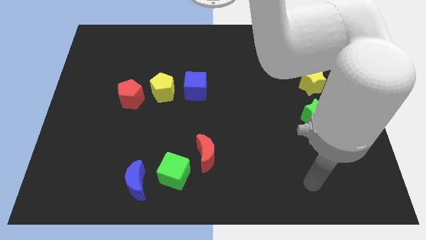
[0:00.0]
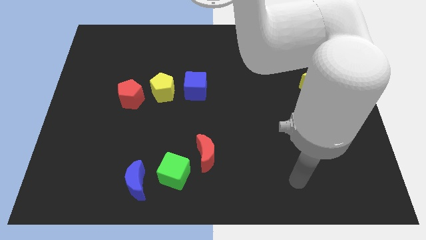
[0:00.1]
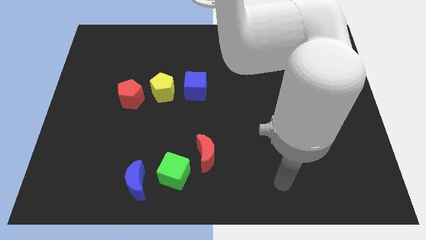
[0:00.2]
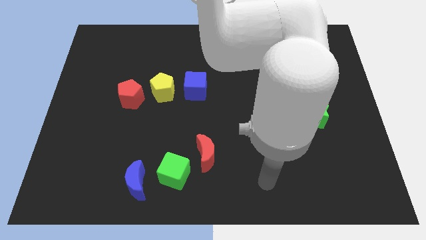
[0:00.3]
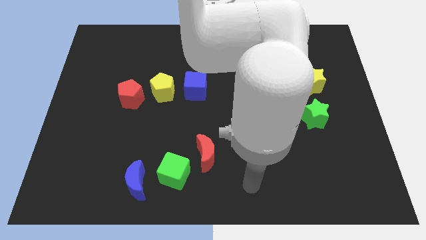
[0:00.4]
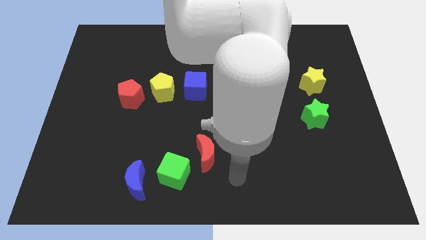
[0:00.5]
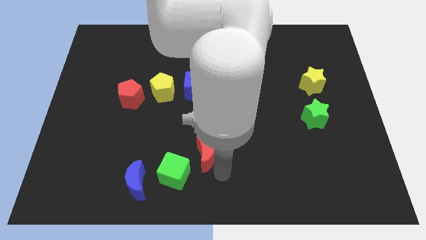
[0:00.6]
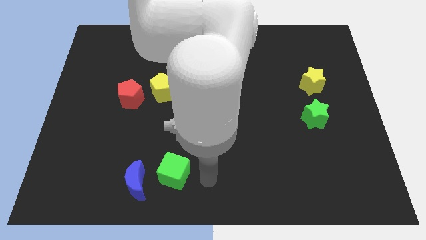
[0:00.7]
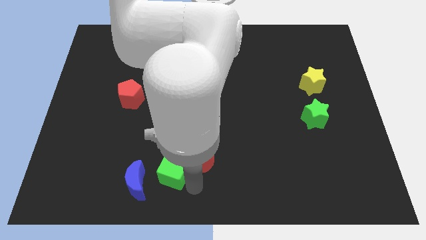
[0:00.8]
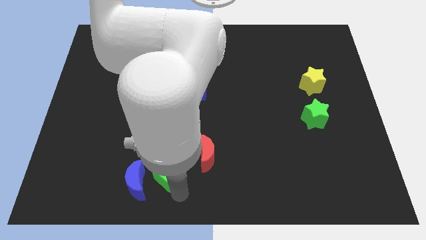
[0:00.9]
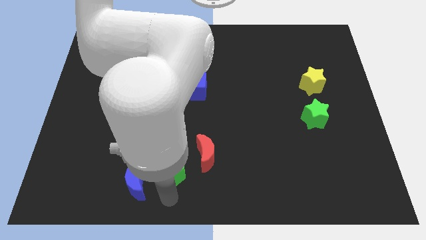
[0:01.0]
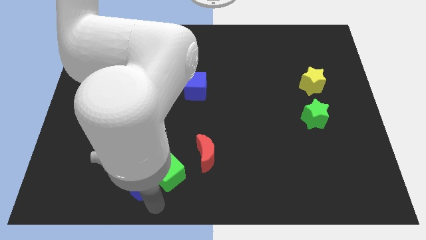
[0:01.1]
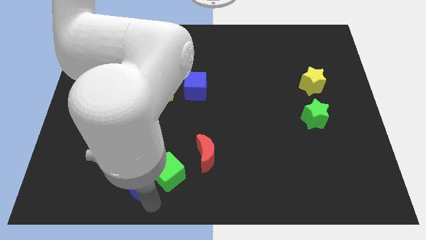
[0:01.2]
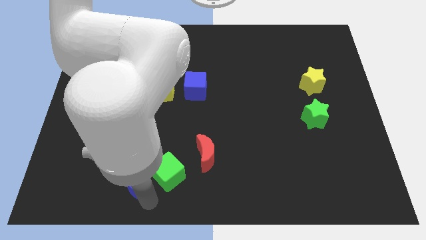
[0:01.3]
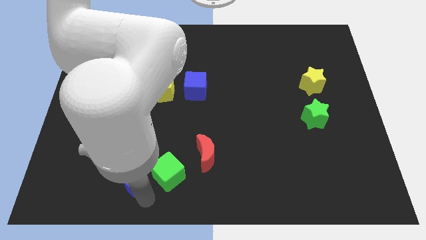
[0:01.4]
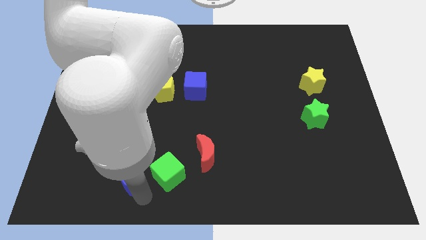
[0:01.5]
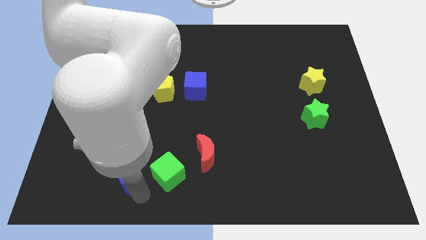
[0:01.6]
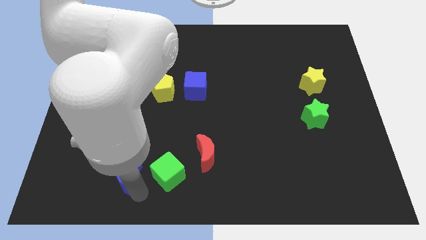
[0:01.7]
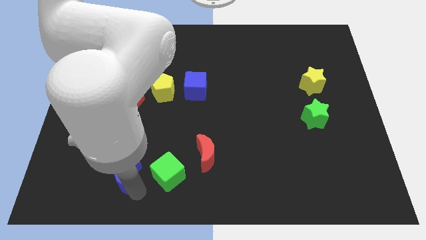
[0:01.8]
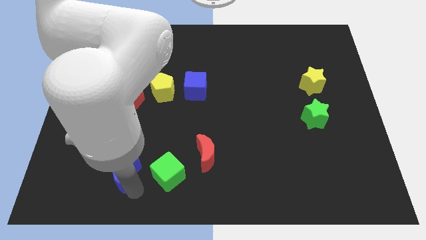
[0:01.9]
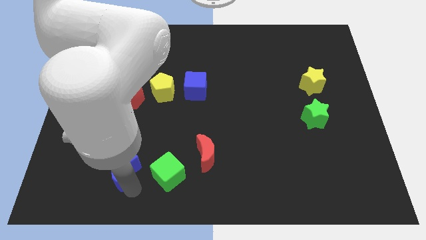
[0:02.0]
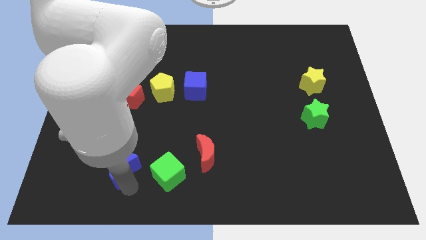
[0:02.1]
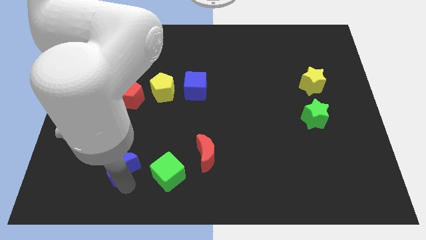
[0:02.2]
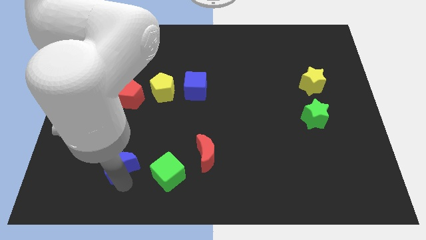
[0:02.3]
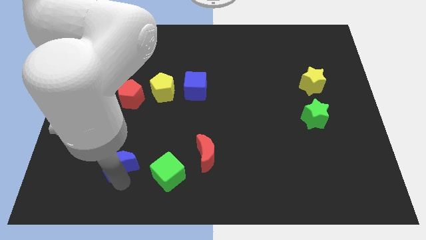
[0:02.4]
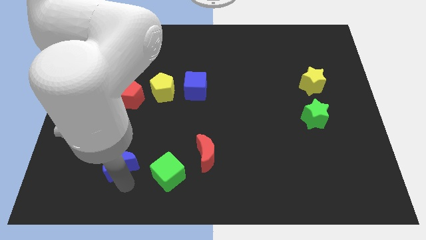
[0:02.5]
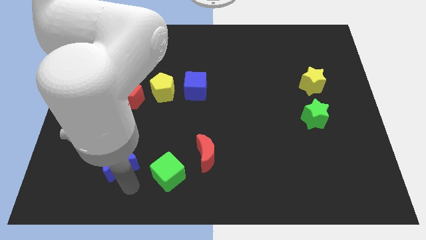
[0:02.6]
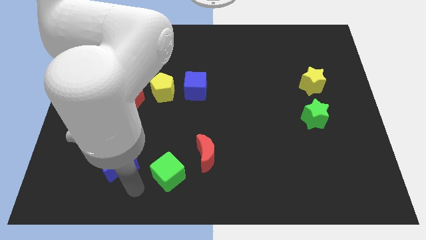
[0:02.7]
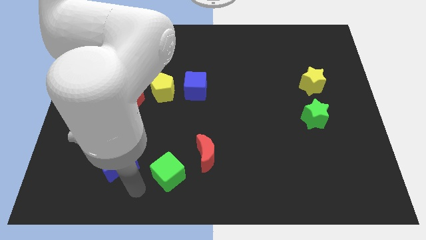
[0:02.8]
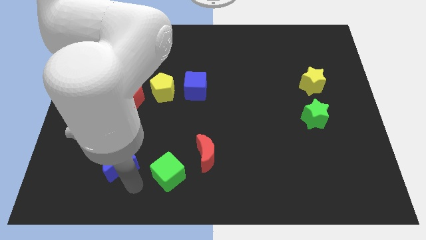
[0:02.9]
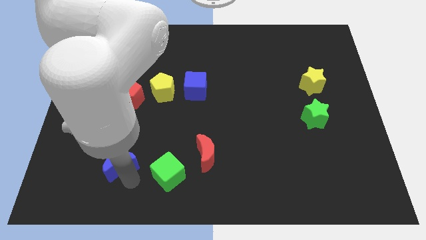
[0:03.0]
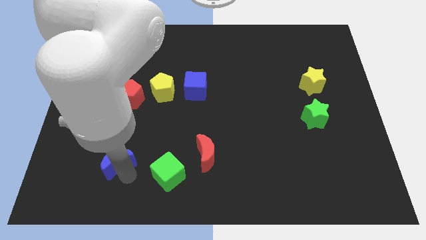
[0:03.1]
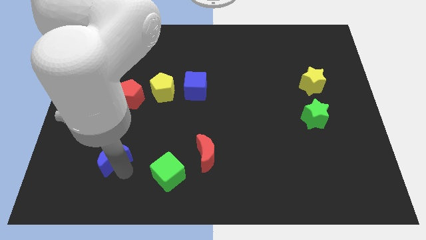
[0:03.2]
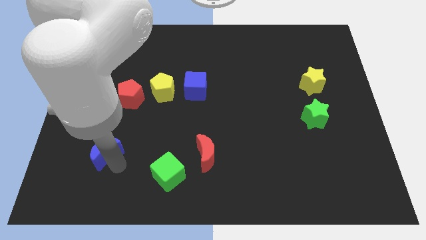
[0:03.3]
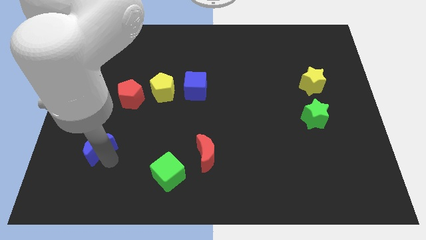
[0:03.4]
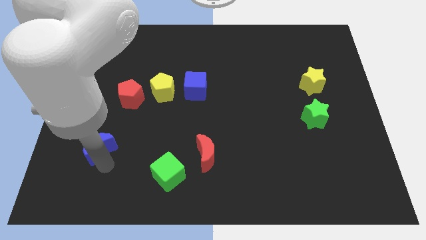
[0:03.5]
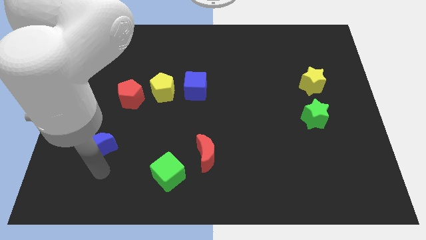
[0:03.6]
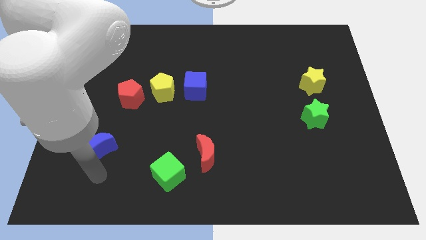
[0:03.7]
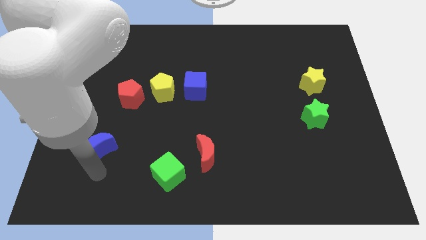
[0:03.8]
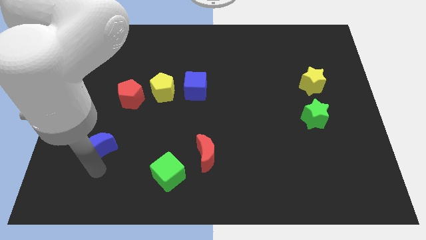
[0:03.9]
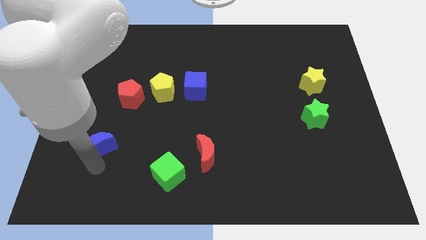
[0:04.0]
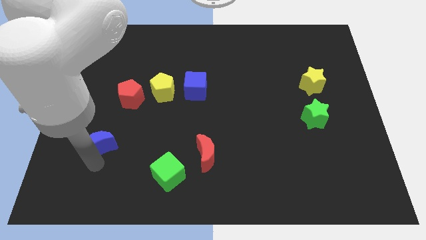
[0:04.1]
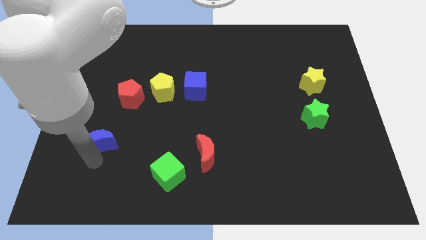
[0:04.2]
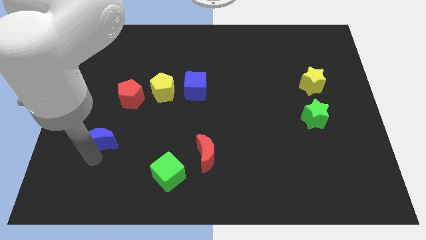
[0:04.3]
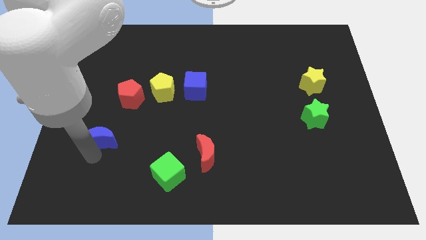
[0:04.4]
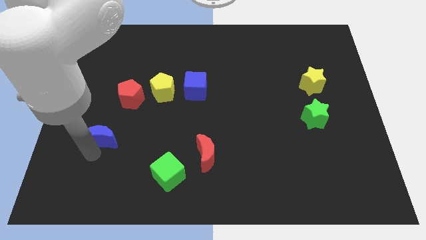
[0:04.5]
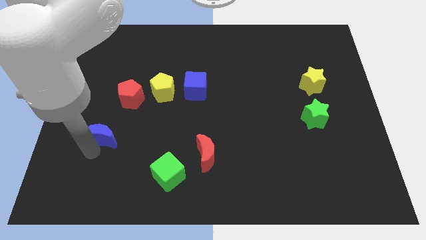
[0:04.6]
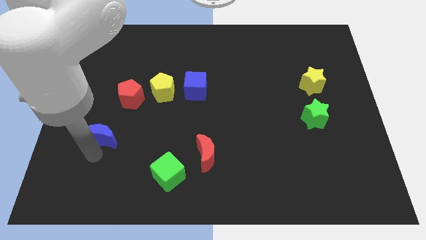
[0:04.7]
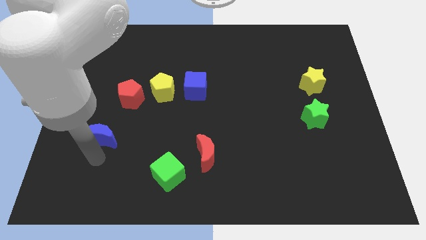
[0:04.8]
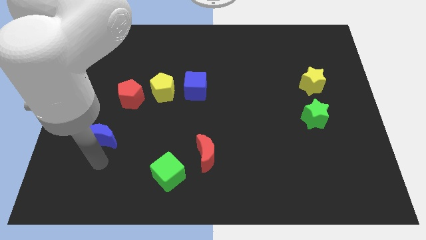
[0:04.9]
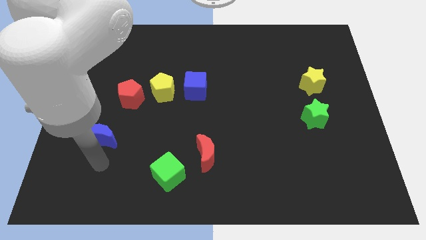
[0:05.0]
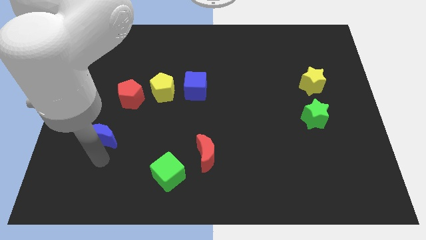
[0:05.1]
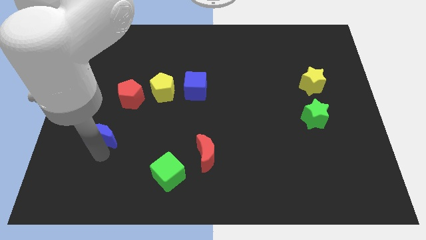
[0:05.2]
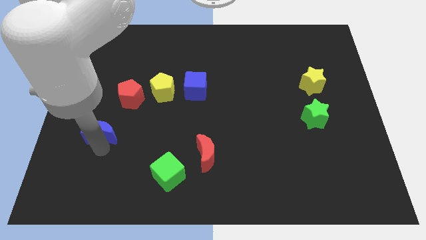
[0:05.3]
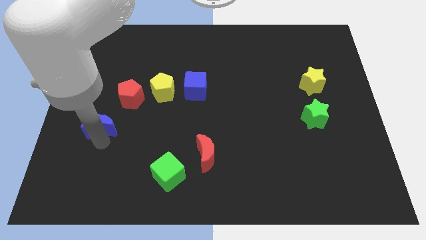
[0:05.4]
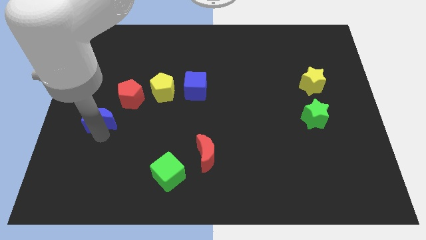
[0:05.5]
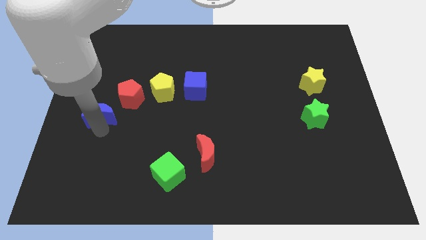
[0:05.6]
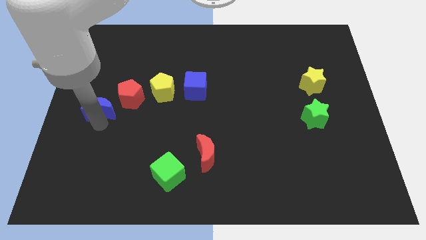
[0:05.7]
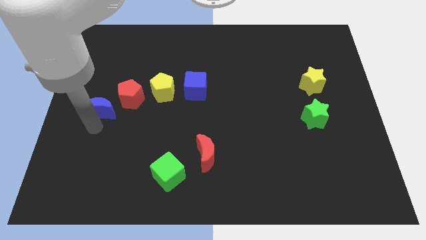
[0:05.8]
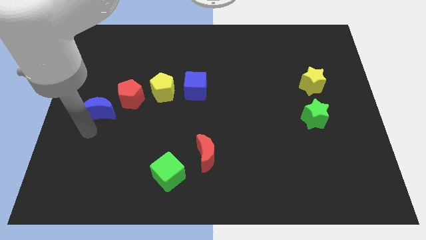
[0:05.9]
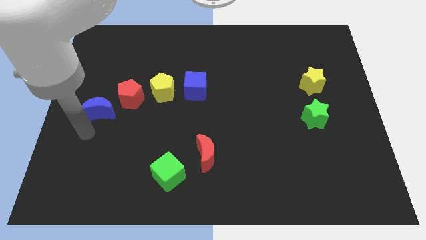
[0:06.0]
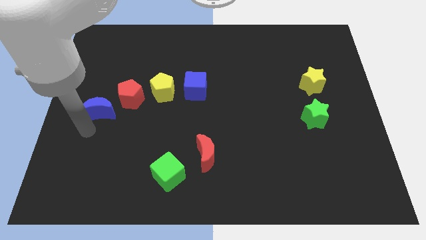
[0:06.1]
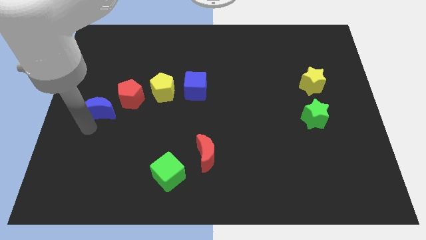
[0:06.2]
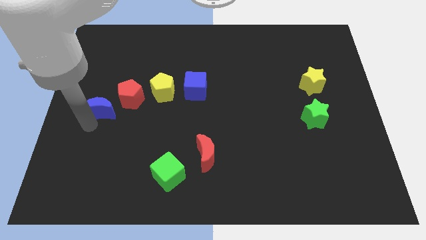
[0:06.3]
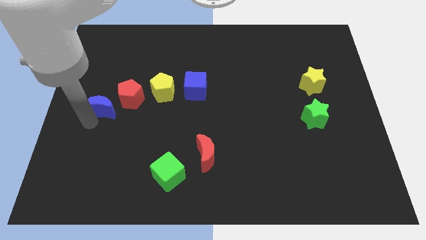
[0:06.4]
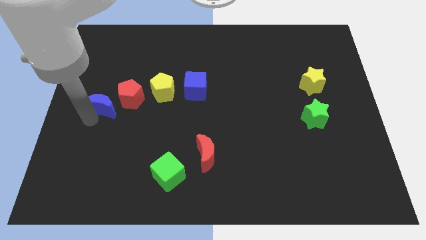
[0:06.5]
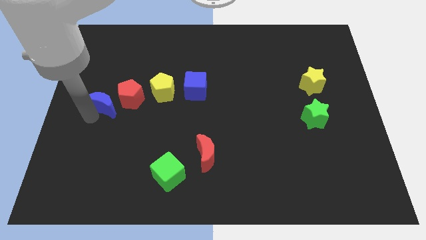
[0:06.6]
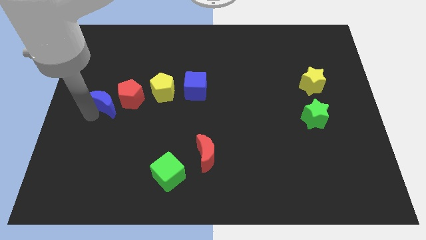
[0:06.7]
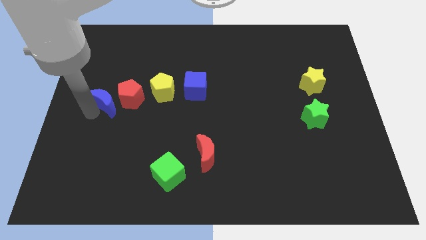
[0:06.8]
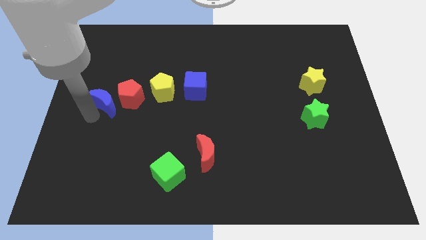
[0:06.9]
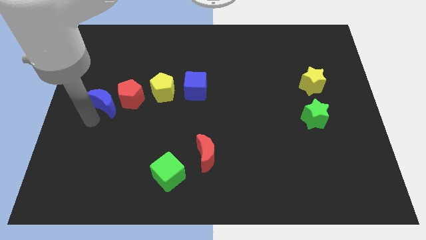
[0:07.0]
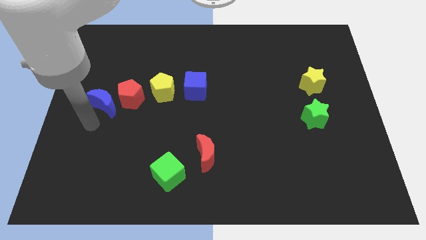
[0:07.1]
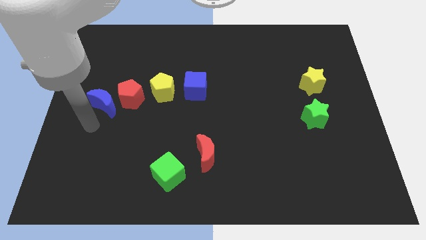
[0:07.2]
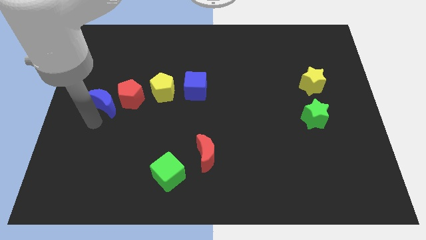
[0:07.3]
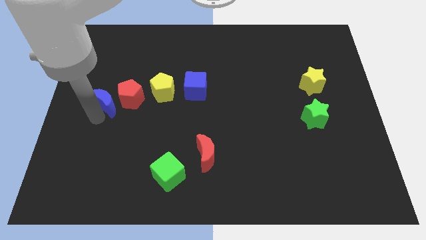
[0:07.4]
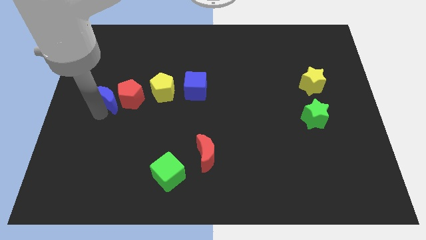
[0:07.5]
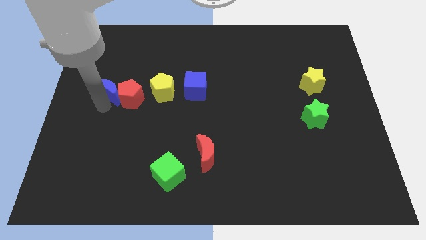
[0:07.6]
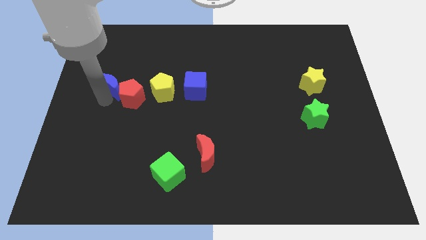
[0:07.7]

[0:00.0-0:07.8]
move the blue moon upwards

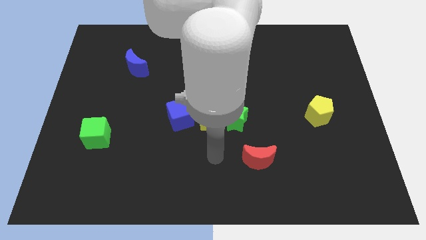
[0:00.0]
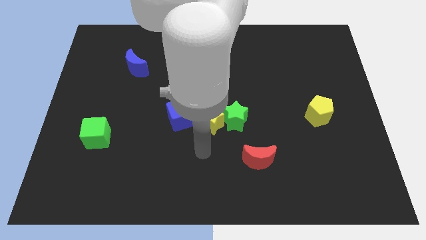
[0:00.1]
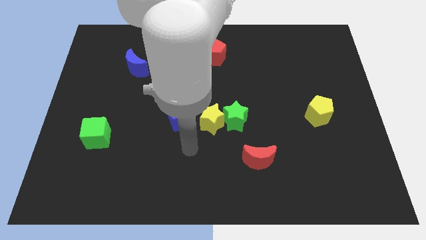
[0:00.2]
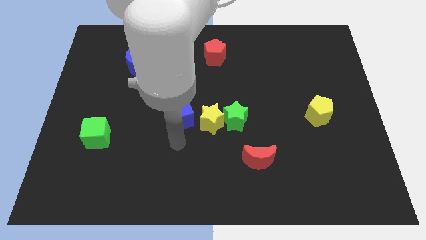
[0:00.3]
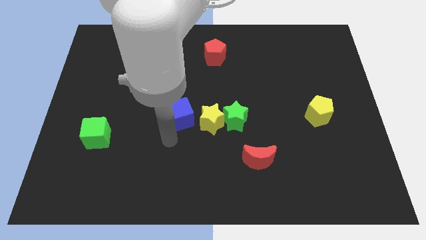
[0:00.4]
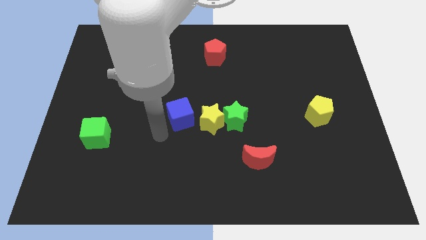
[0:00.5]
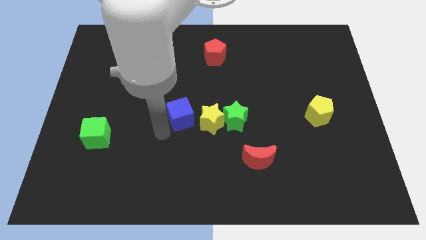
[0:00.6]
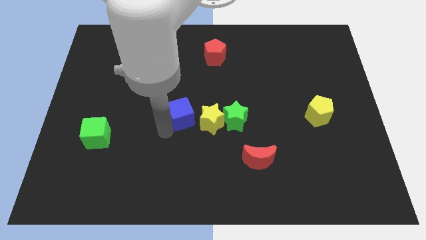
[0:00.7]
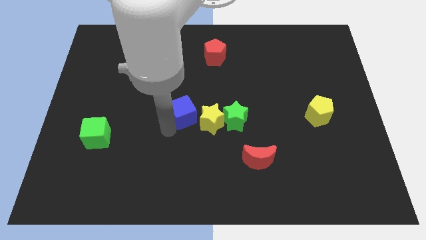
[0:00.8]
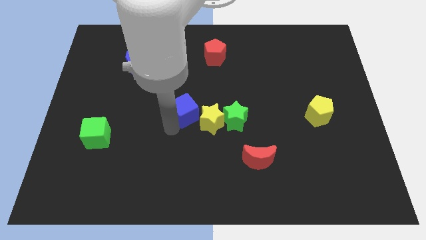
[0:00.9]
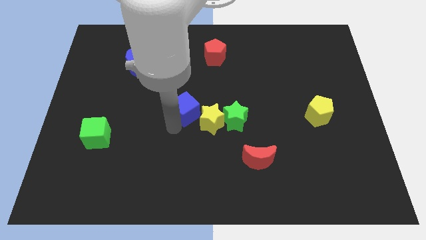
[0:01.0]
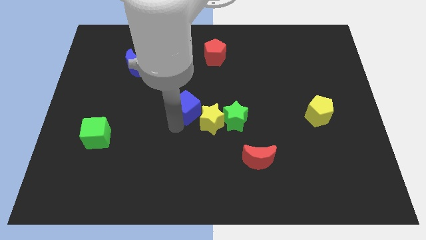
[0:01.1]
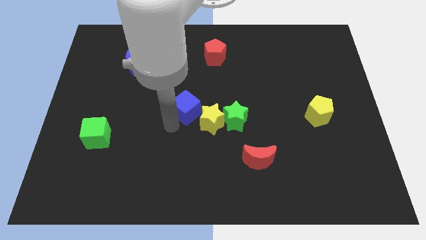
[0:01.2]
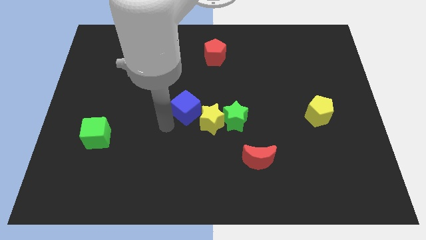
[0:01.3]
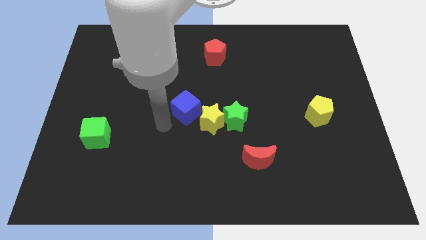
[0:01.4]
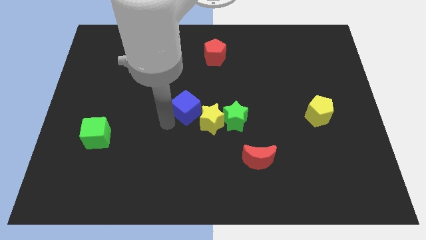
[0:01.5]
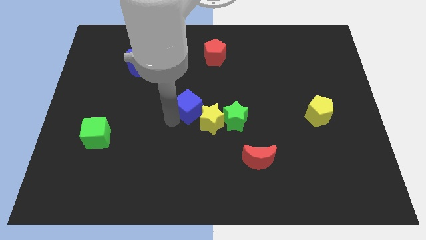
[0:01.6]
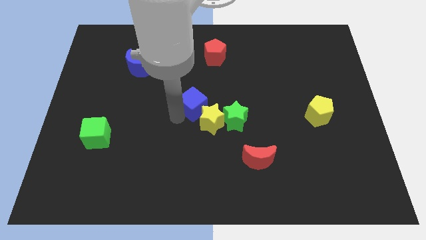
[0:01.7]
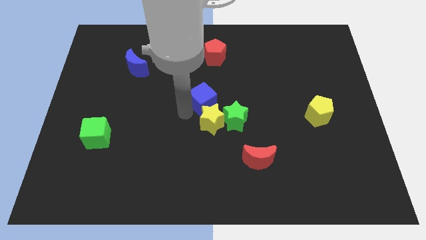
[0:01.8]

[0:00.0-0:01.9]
push the blue cube slightly upwards and to the right
